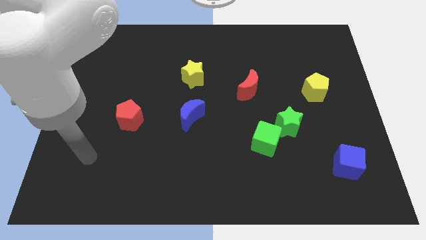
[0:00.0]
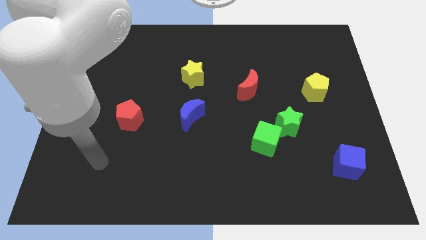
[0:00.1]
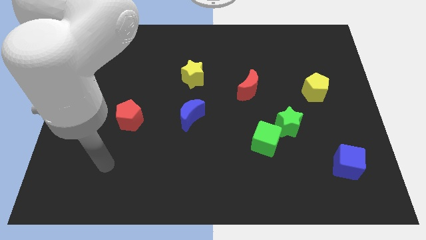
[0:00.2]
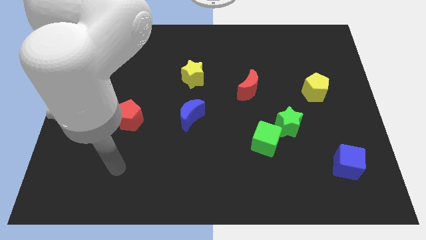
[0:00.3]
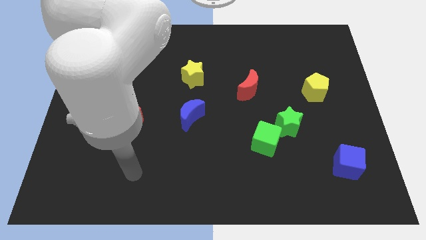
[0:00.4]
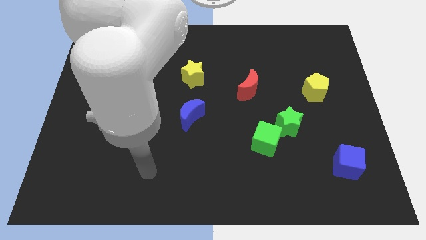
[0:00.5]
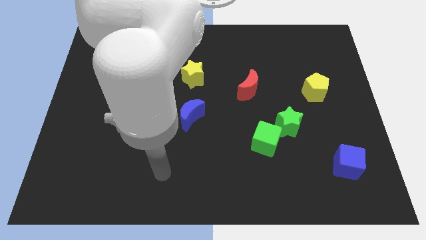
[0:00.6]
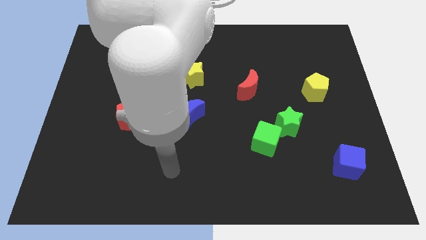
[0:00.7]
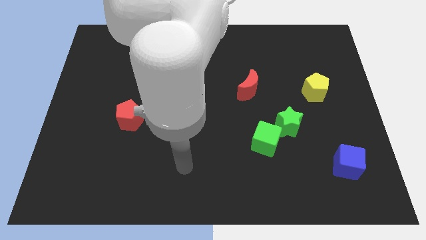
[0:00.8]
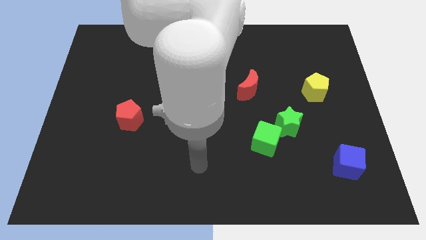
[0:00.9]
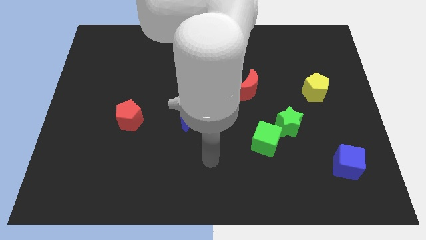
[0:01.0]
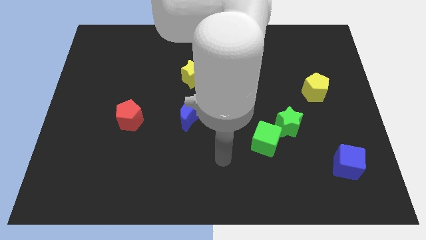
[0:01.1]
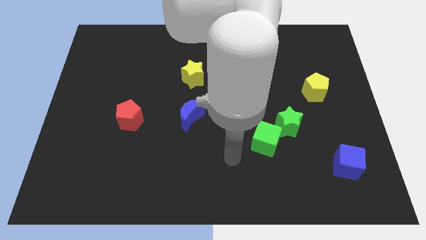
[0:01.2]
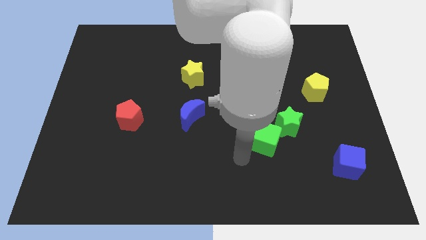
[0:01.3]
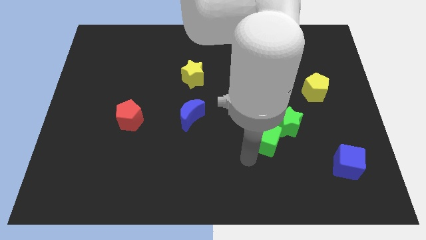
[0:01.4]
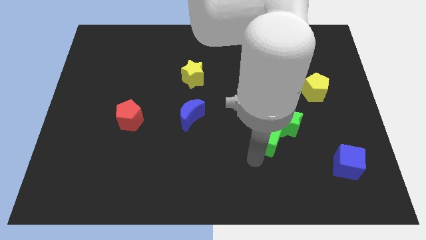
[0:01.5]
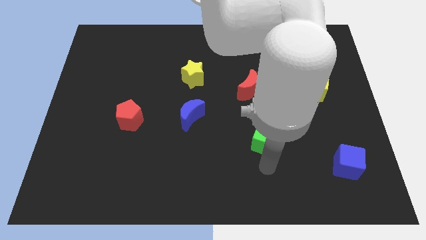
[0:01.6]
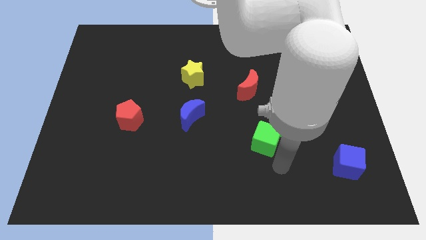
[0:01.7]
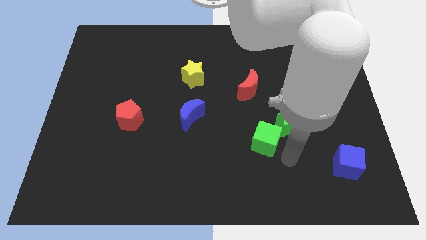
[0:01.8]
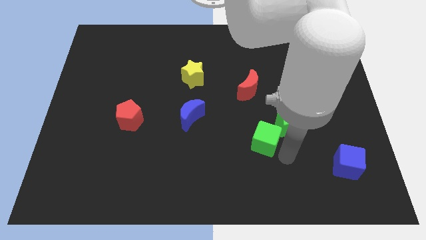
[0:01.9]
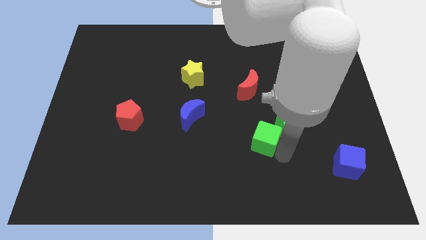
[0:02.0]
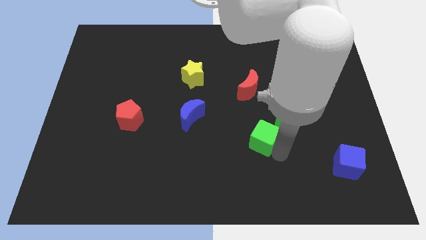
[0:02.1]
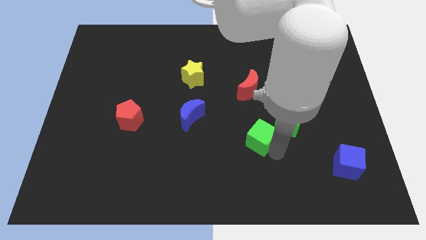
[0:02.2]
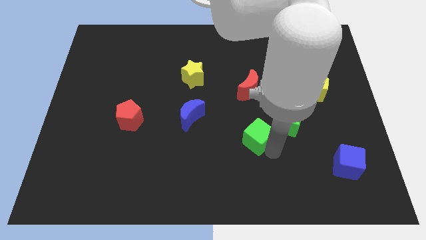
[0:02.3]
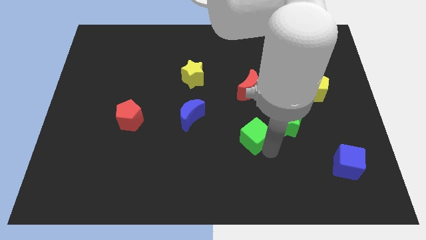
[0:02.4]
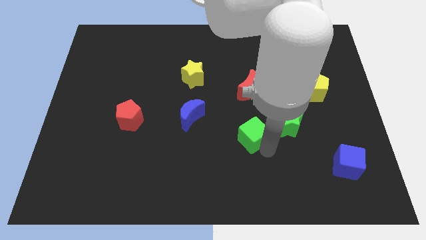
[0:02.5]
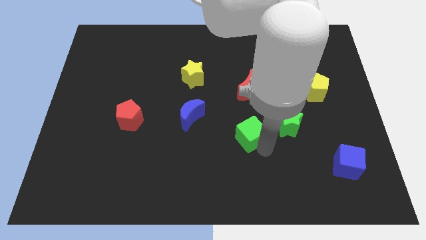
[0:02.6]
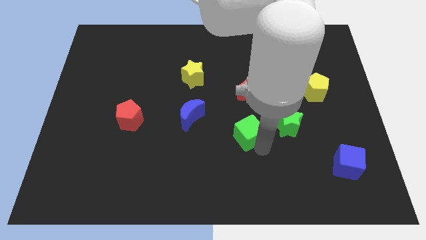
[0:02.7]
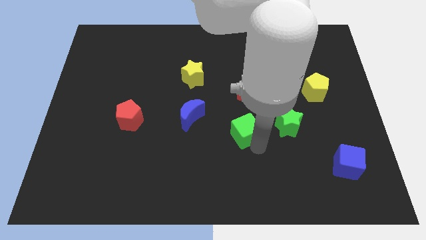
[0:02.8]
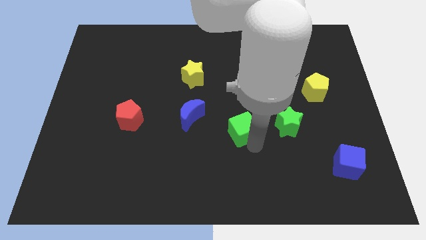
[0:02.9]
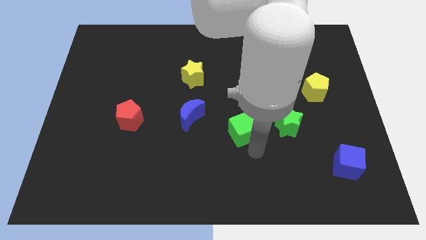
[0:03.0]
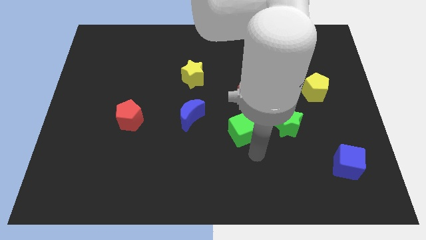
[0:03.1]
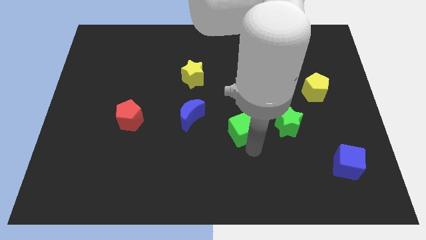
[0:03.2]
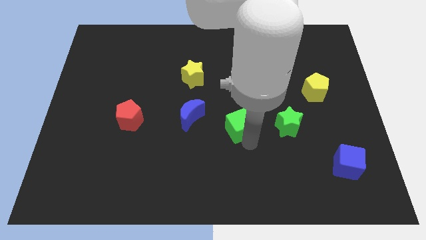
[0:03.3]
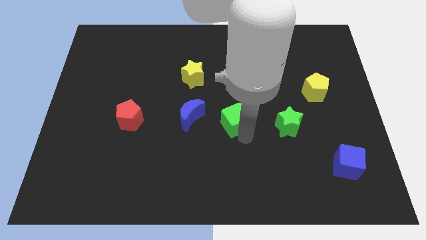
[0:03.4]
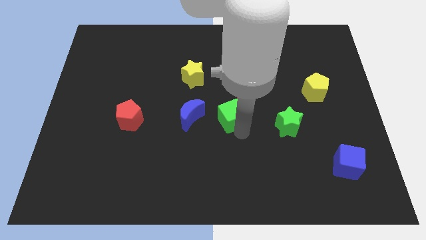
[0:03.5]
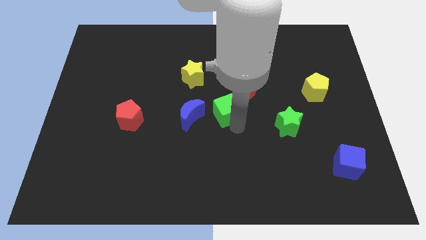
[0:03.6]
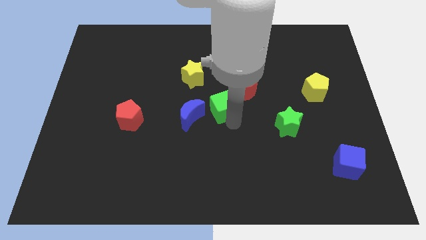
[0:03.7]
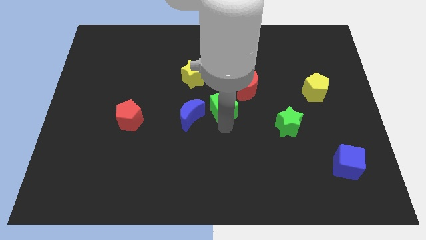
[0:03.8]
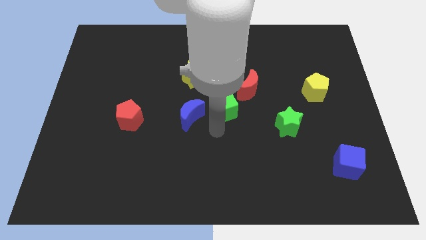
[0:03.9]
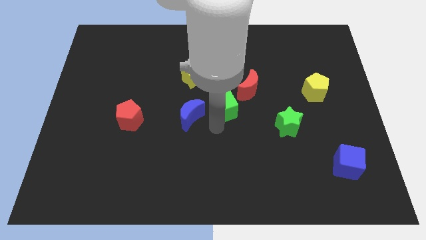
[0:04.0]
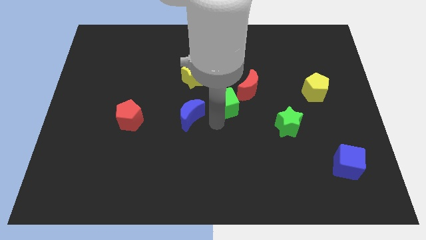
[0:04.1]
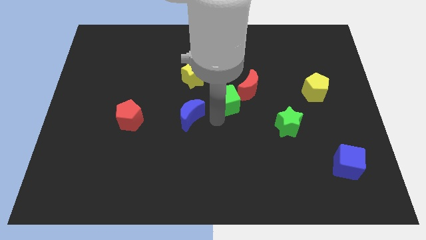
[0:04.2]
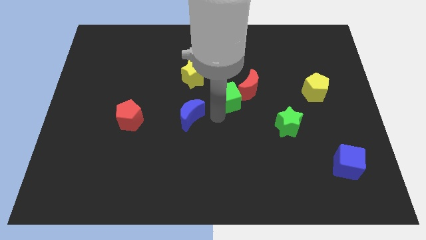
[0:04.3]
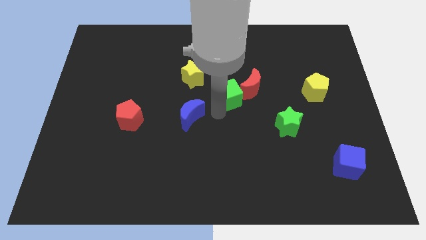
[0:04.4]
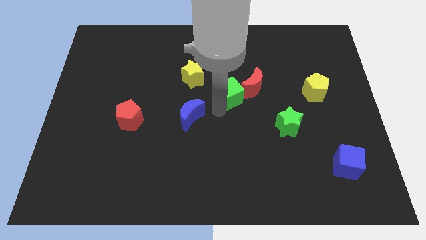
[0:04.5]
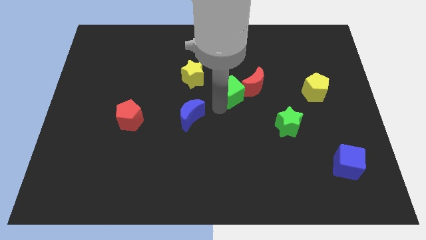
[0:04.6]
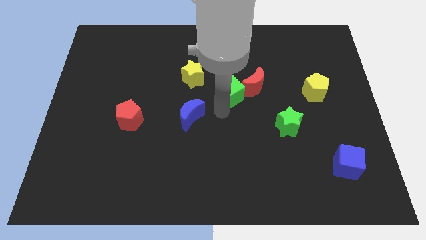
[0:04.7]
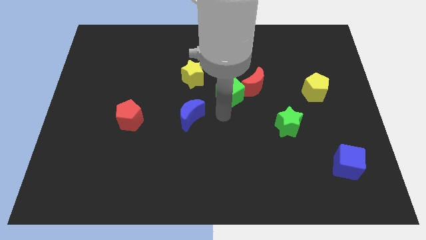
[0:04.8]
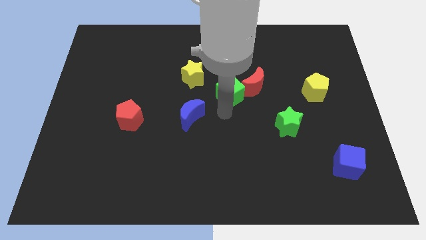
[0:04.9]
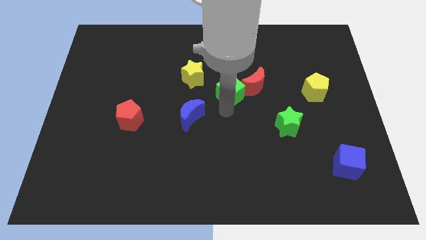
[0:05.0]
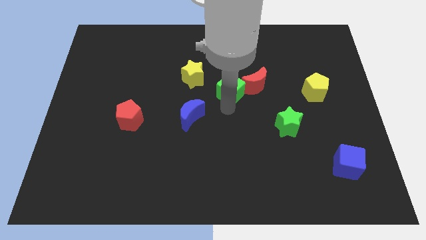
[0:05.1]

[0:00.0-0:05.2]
slide the green cube just right of the yellow star

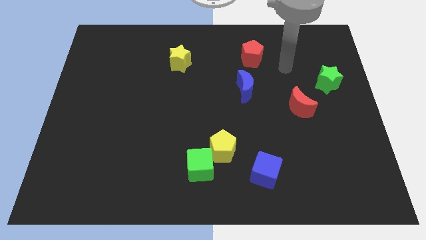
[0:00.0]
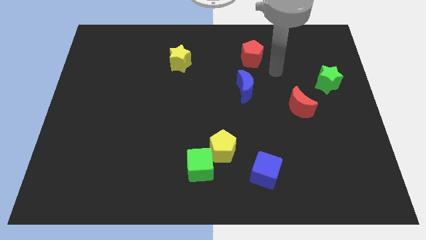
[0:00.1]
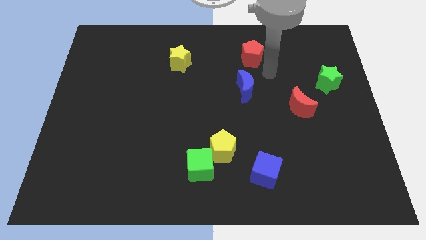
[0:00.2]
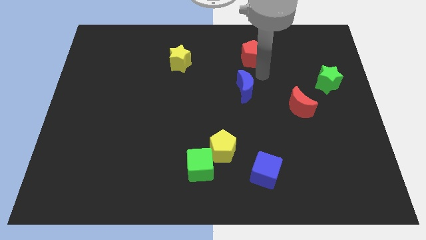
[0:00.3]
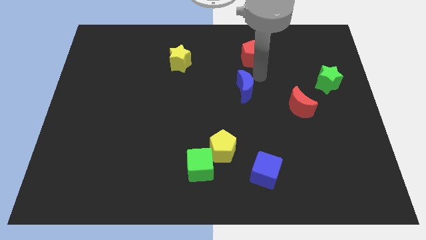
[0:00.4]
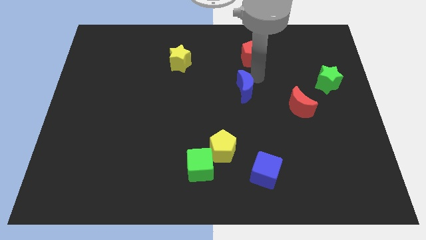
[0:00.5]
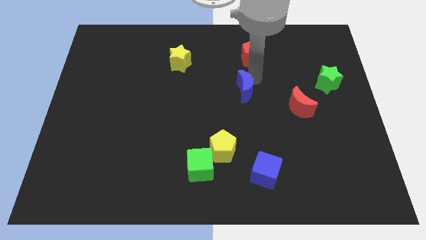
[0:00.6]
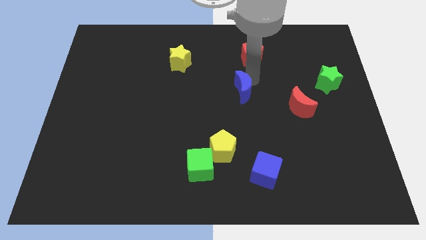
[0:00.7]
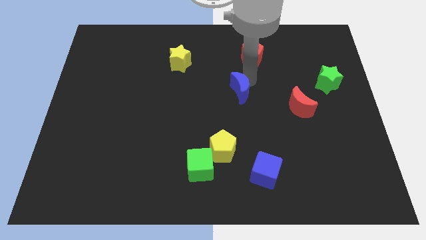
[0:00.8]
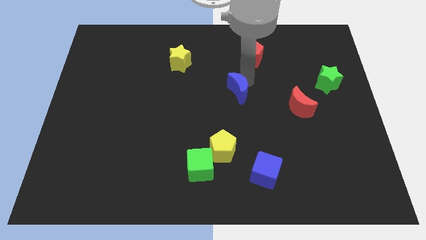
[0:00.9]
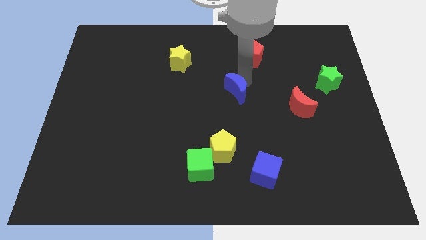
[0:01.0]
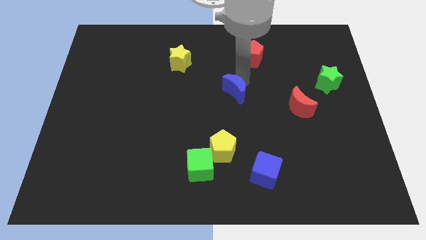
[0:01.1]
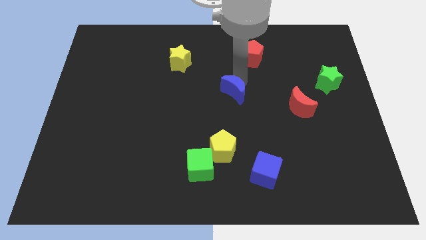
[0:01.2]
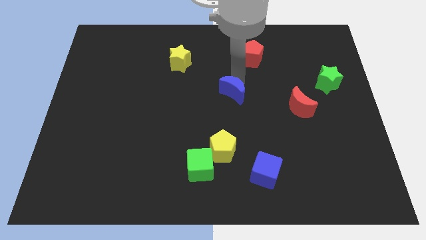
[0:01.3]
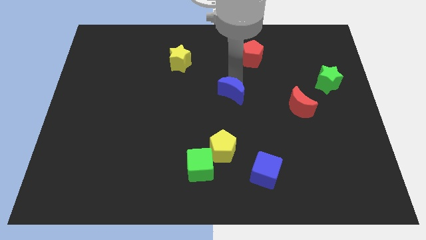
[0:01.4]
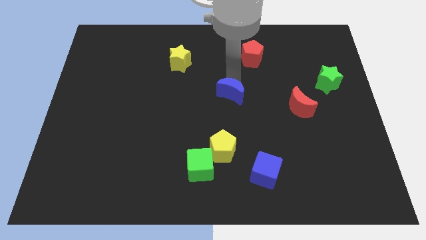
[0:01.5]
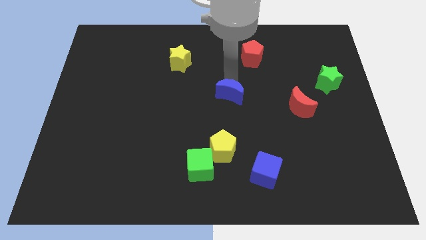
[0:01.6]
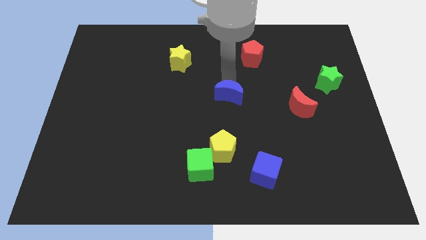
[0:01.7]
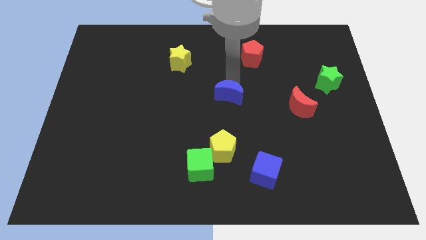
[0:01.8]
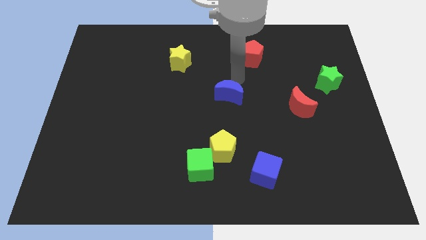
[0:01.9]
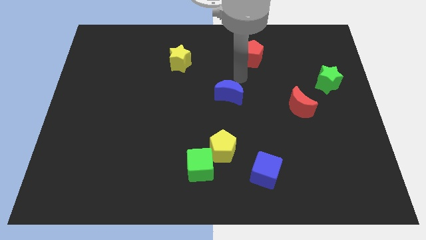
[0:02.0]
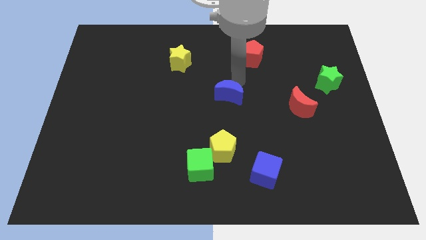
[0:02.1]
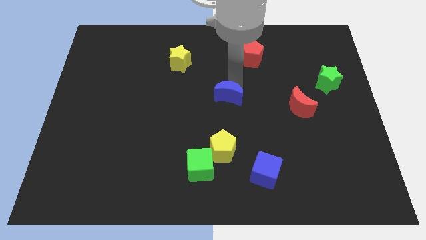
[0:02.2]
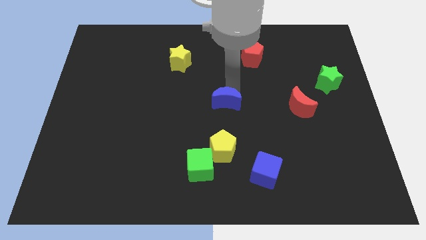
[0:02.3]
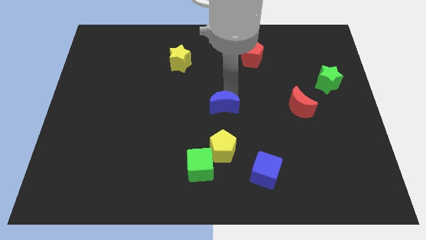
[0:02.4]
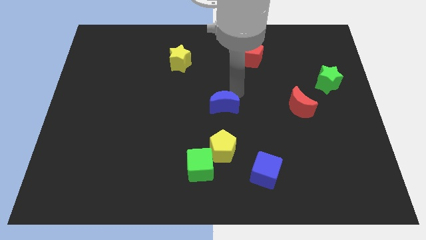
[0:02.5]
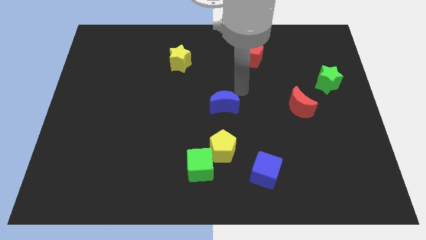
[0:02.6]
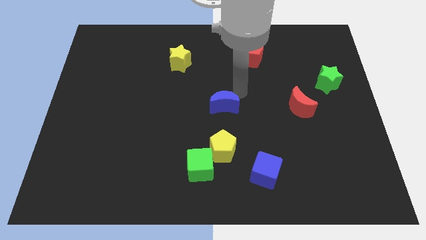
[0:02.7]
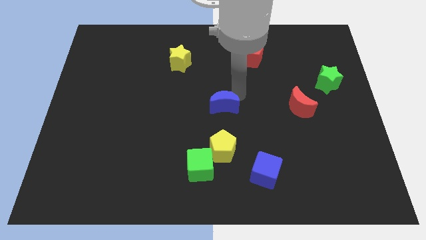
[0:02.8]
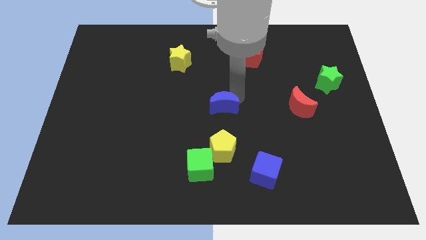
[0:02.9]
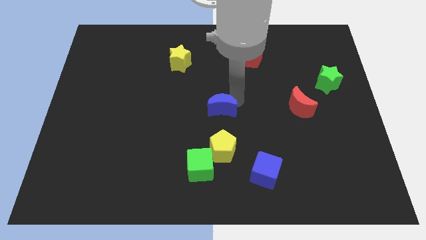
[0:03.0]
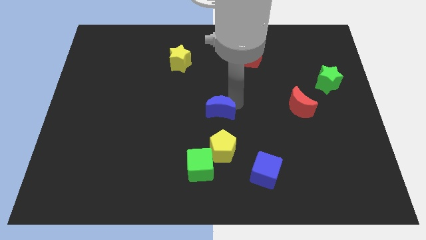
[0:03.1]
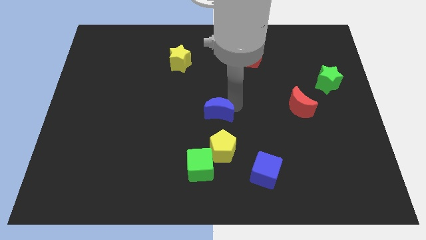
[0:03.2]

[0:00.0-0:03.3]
put the blue moon above the green cube
